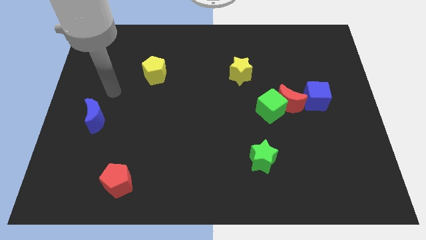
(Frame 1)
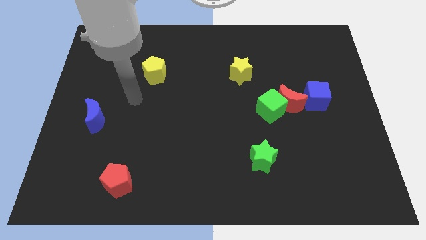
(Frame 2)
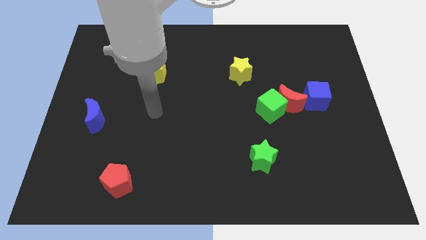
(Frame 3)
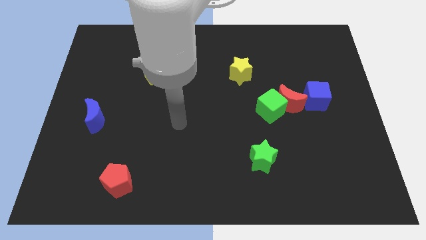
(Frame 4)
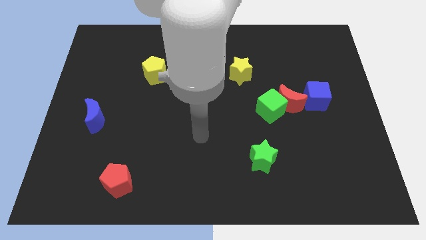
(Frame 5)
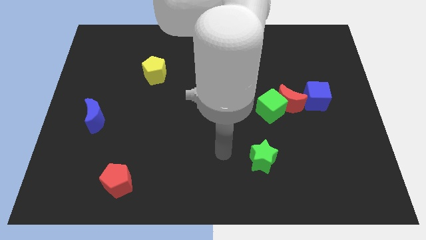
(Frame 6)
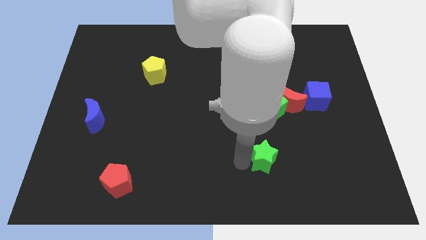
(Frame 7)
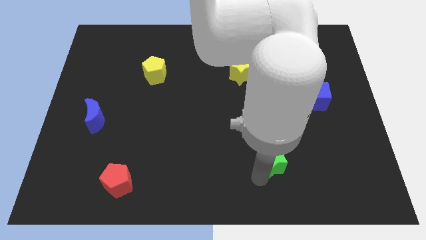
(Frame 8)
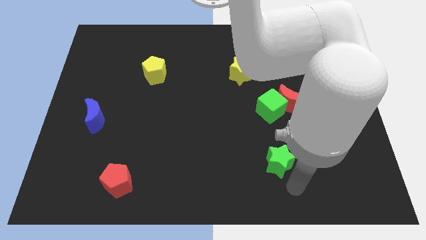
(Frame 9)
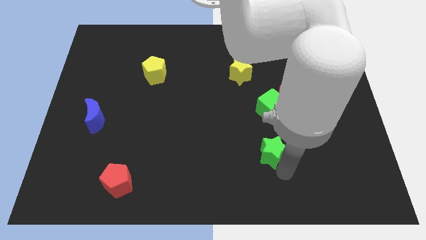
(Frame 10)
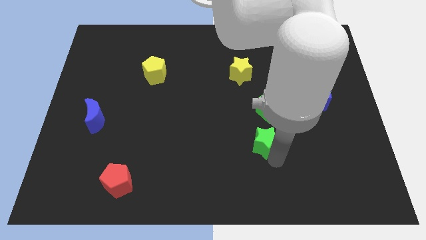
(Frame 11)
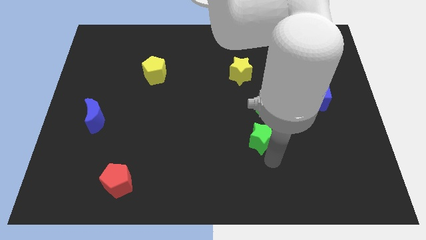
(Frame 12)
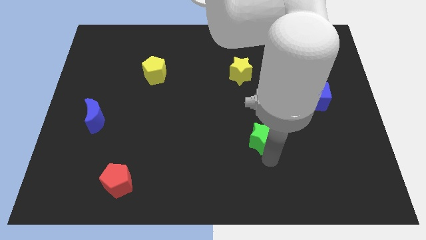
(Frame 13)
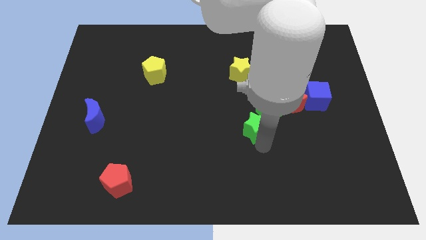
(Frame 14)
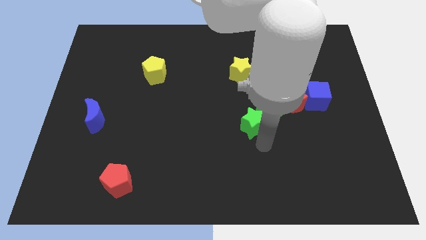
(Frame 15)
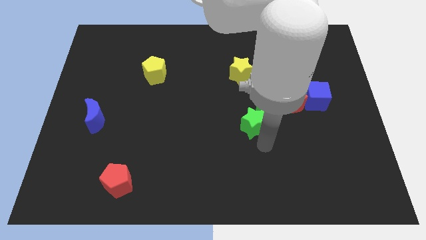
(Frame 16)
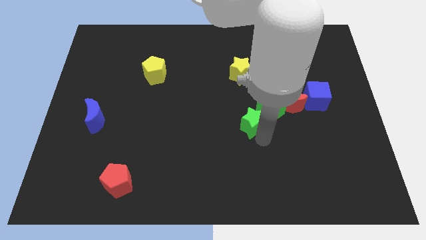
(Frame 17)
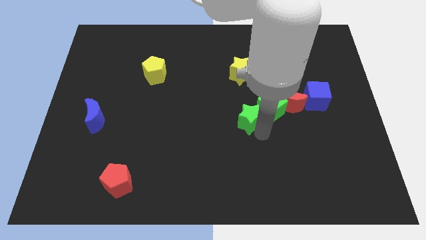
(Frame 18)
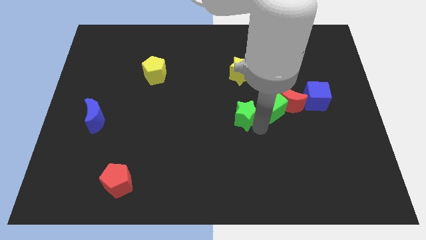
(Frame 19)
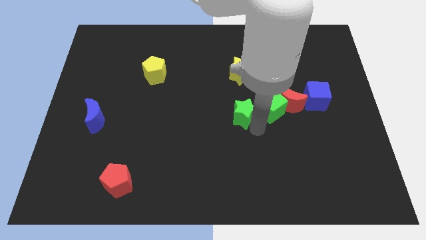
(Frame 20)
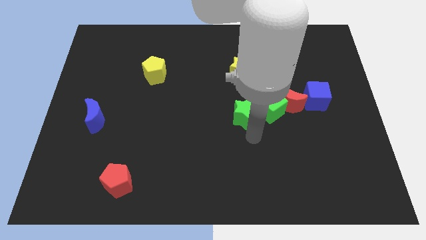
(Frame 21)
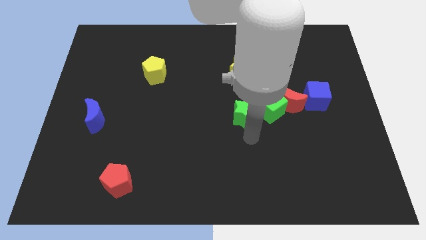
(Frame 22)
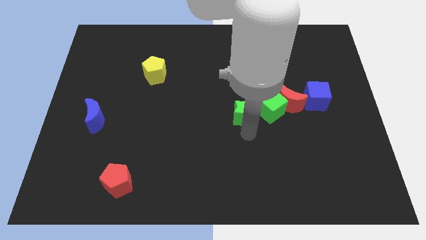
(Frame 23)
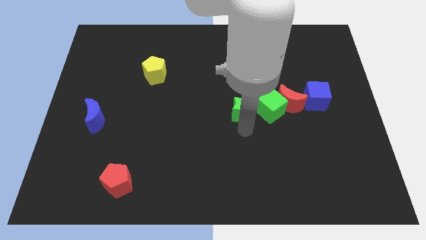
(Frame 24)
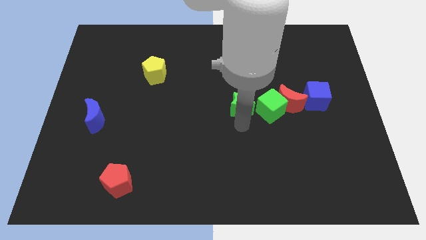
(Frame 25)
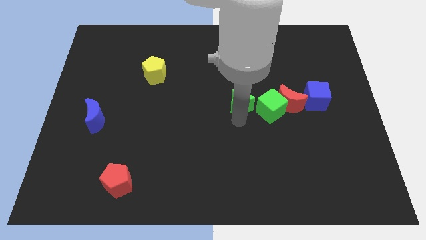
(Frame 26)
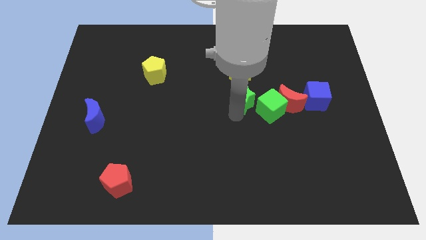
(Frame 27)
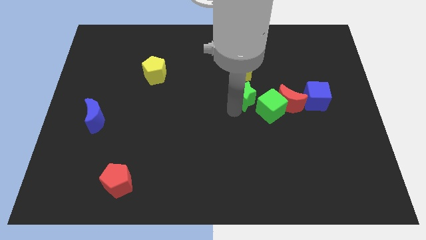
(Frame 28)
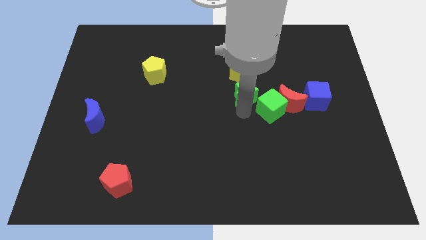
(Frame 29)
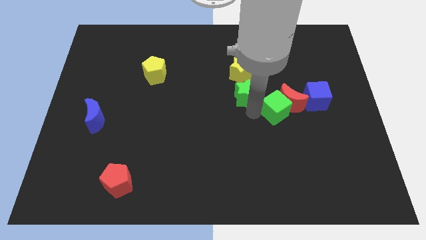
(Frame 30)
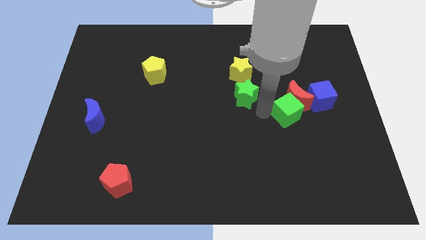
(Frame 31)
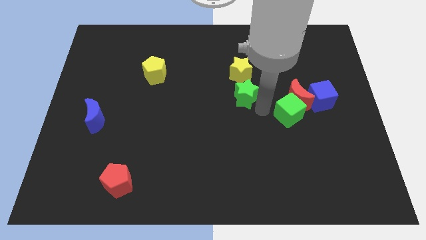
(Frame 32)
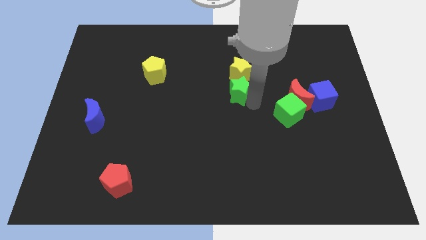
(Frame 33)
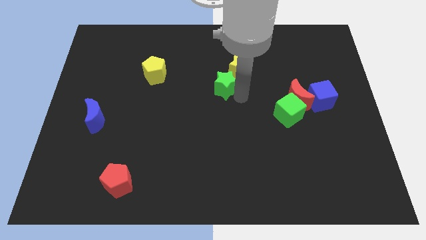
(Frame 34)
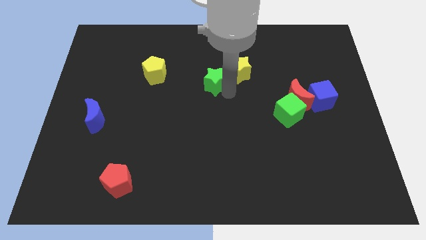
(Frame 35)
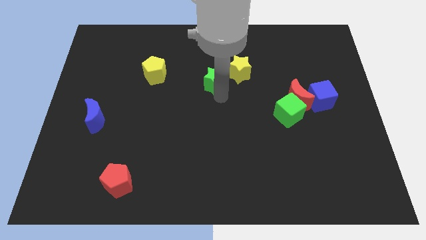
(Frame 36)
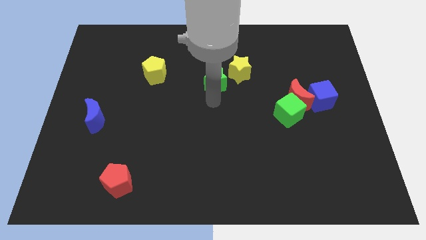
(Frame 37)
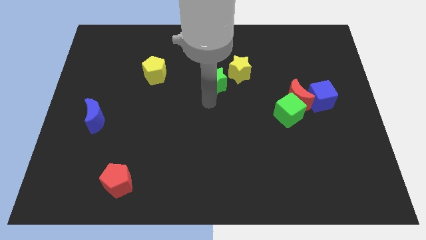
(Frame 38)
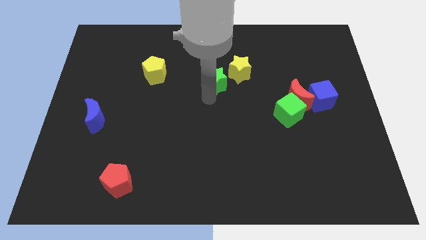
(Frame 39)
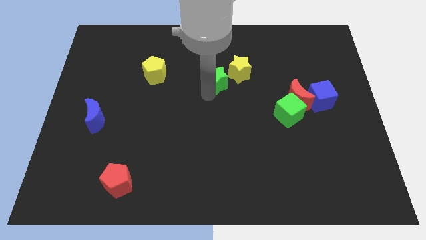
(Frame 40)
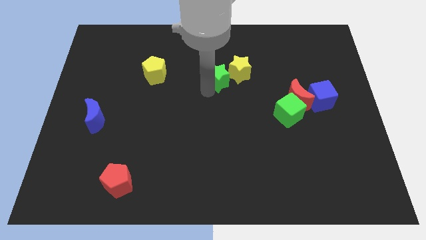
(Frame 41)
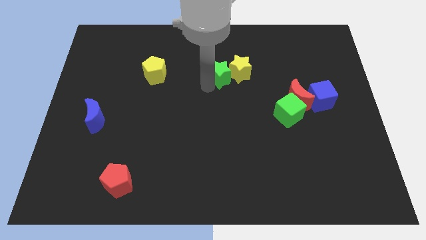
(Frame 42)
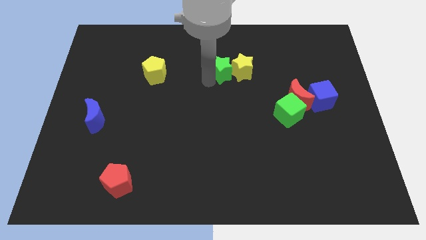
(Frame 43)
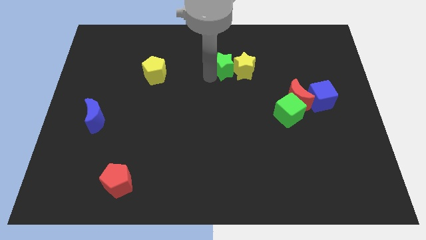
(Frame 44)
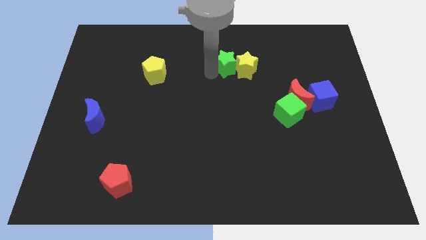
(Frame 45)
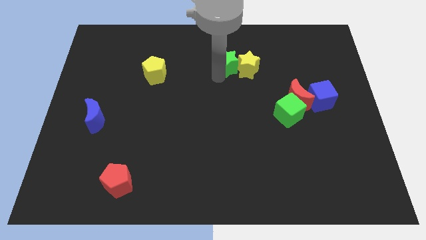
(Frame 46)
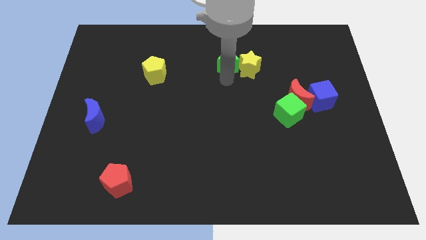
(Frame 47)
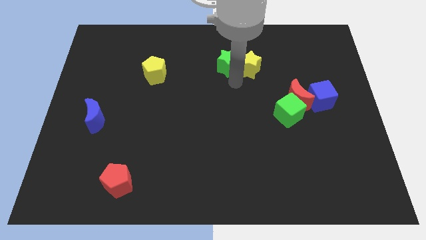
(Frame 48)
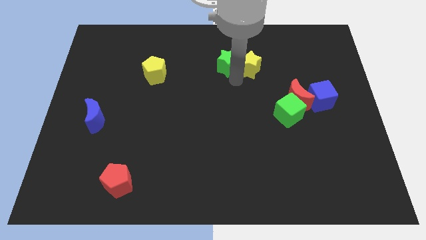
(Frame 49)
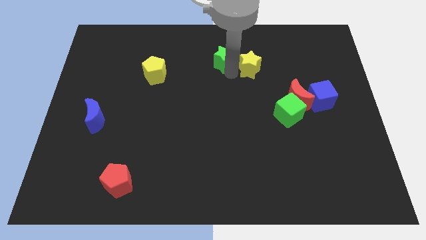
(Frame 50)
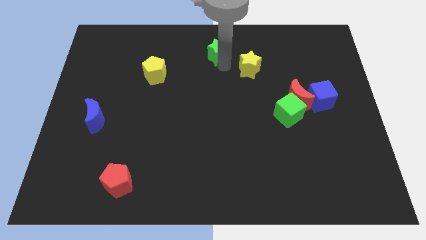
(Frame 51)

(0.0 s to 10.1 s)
push the green star to the top
